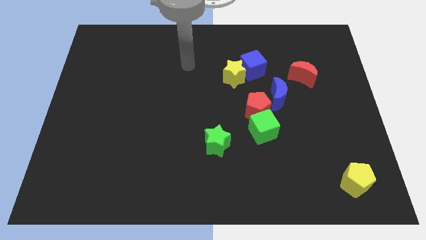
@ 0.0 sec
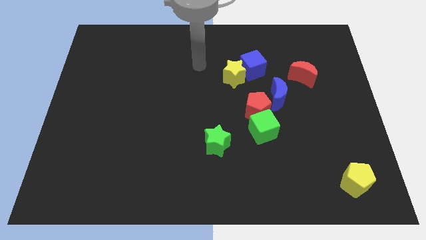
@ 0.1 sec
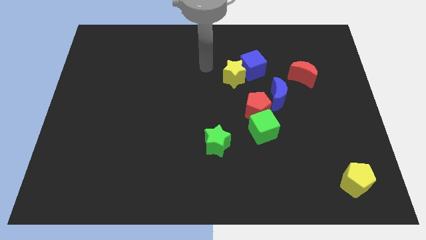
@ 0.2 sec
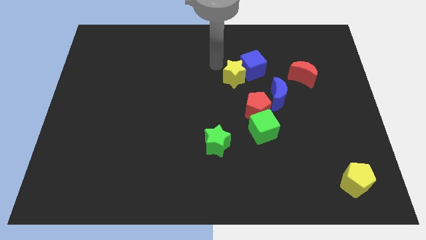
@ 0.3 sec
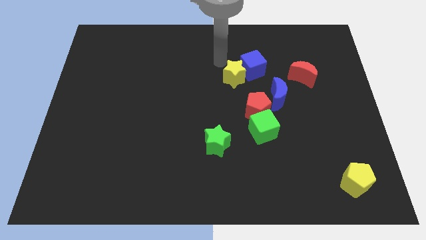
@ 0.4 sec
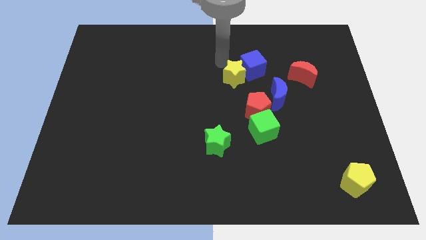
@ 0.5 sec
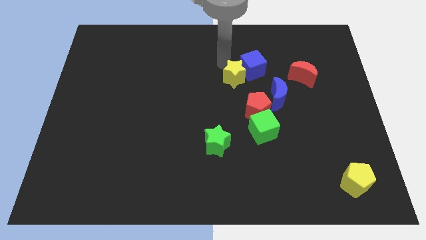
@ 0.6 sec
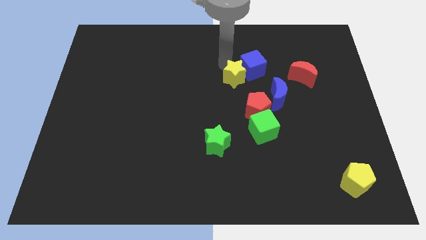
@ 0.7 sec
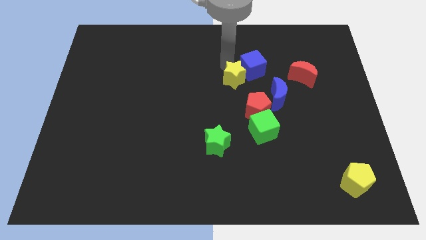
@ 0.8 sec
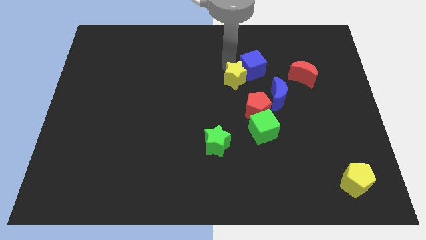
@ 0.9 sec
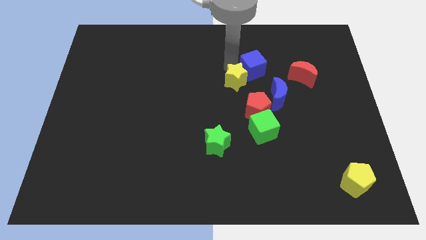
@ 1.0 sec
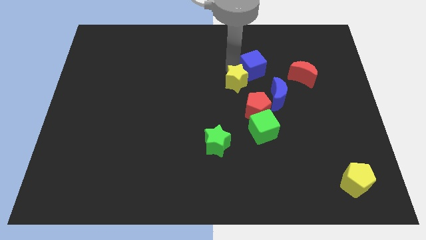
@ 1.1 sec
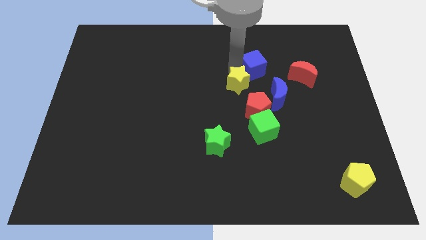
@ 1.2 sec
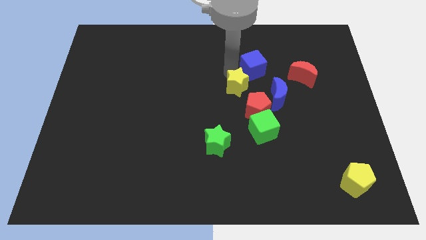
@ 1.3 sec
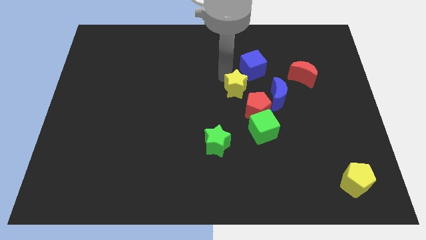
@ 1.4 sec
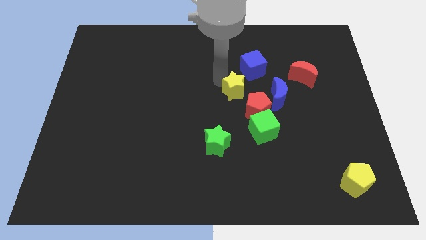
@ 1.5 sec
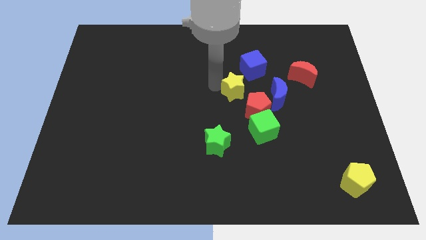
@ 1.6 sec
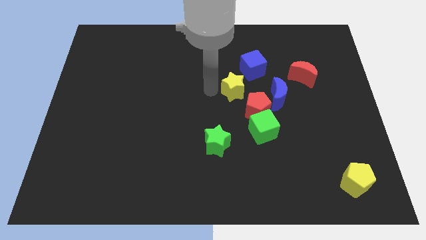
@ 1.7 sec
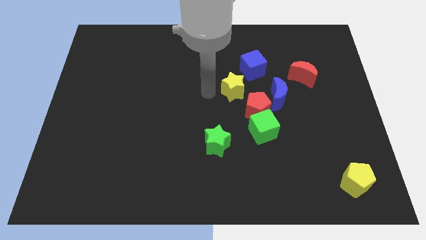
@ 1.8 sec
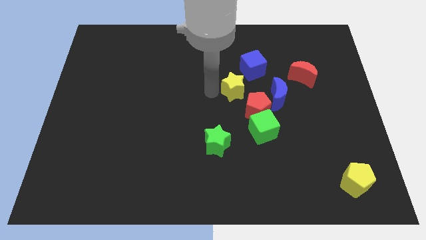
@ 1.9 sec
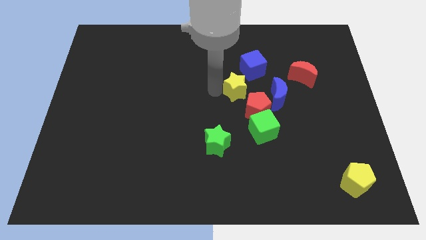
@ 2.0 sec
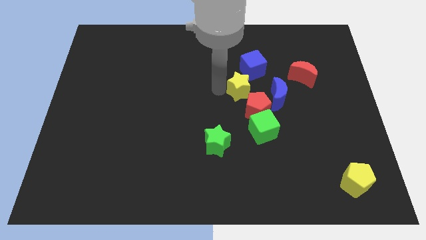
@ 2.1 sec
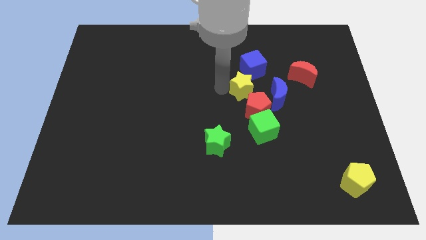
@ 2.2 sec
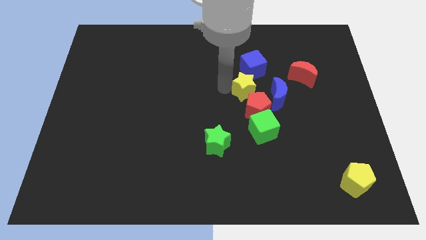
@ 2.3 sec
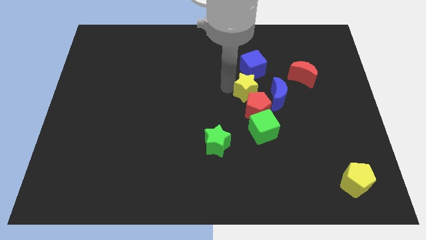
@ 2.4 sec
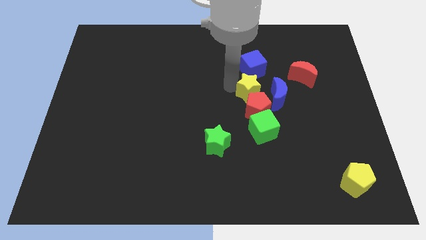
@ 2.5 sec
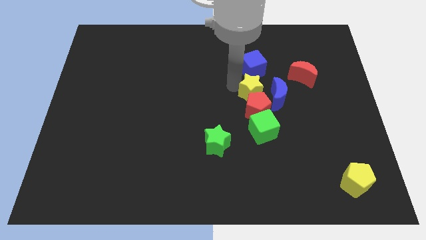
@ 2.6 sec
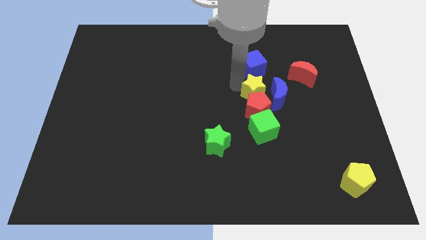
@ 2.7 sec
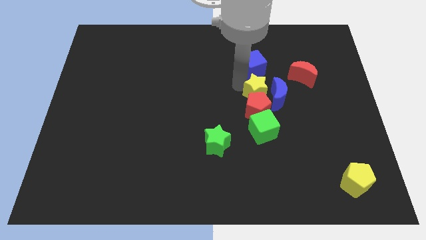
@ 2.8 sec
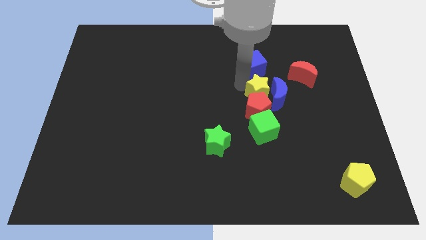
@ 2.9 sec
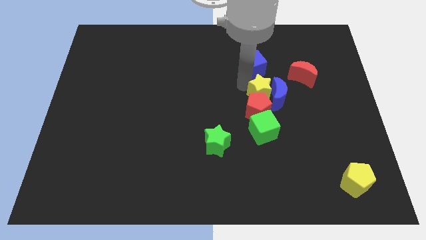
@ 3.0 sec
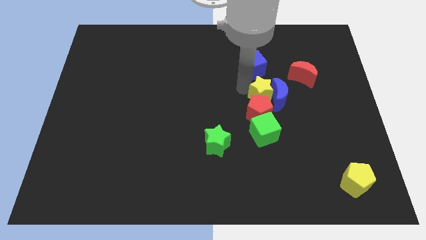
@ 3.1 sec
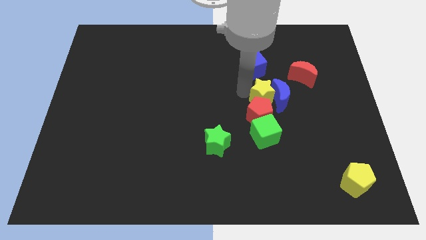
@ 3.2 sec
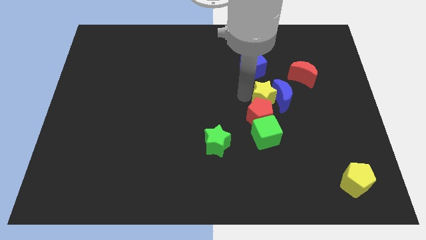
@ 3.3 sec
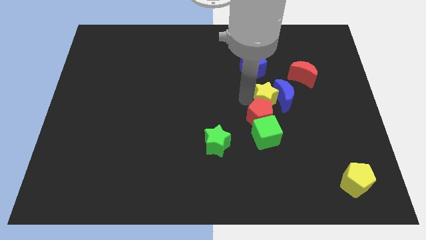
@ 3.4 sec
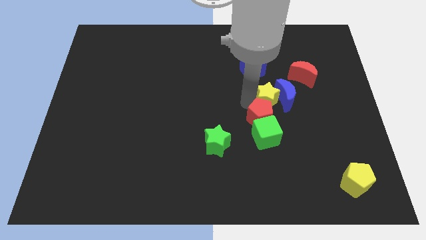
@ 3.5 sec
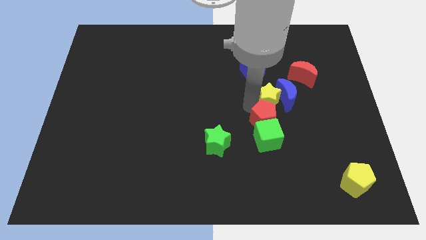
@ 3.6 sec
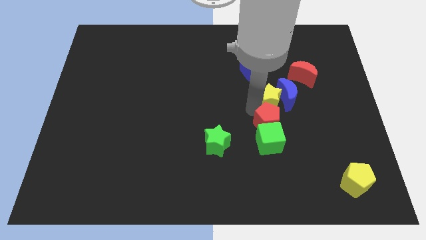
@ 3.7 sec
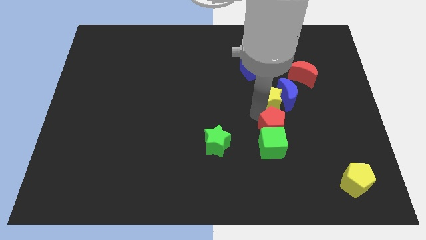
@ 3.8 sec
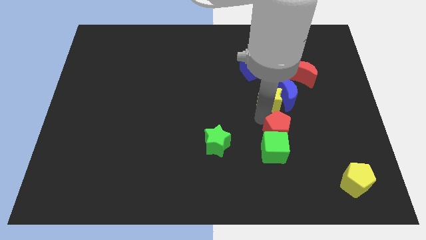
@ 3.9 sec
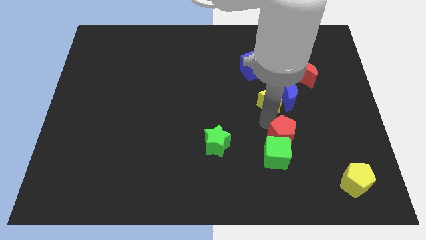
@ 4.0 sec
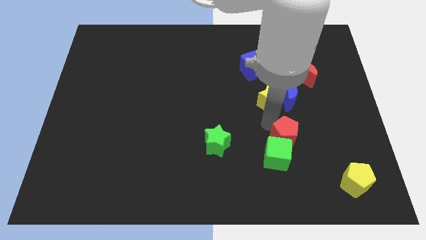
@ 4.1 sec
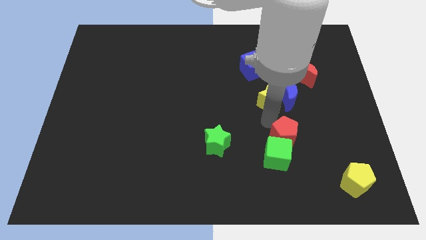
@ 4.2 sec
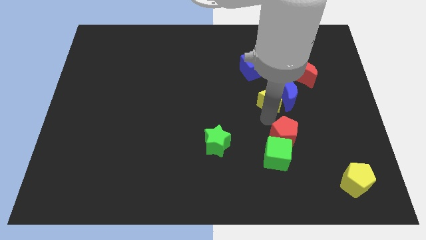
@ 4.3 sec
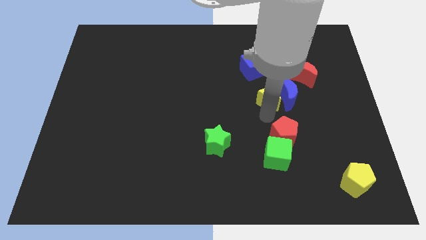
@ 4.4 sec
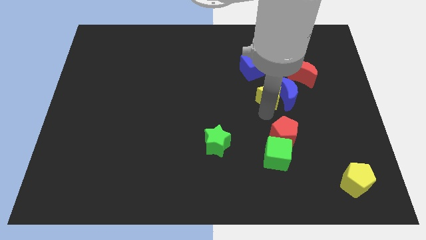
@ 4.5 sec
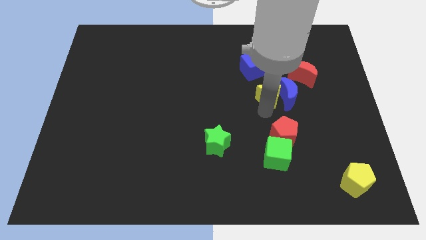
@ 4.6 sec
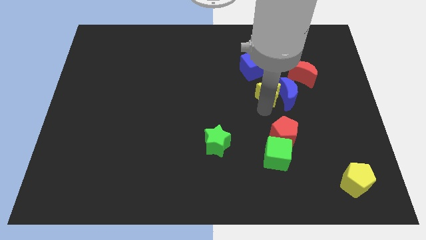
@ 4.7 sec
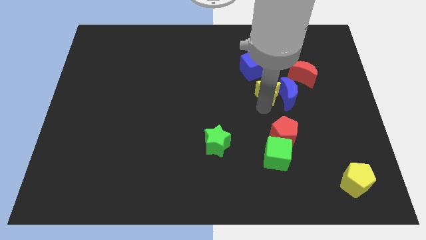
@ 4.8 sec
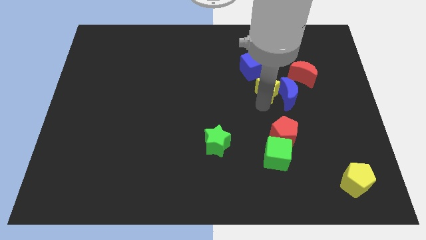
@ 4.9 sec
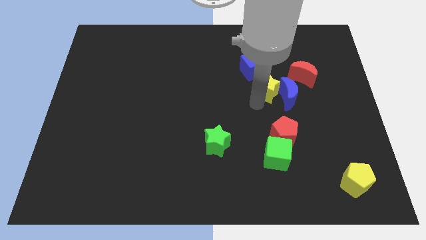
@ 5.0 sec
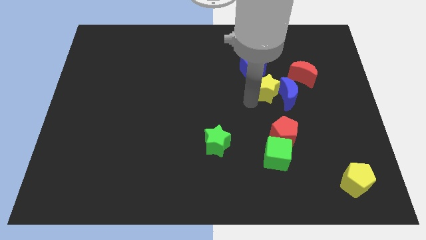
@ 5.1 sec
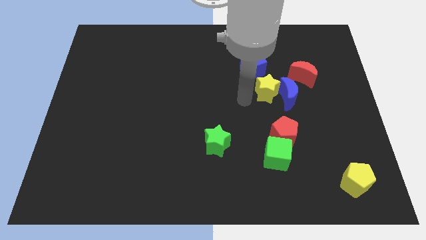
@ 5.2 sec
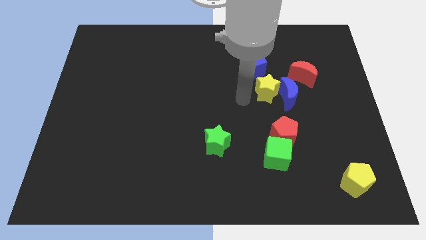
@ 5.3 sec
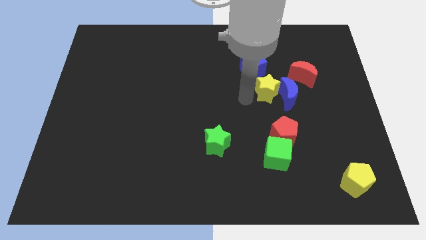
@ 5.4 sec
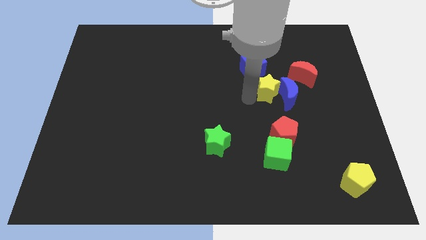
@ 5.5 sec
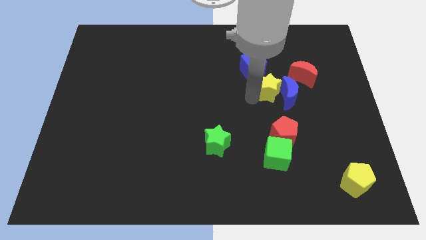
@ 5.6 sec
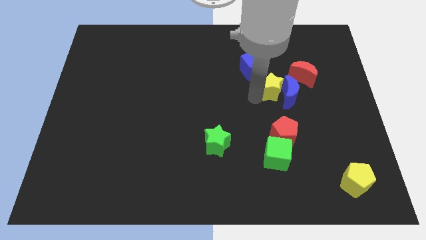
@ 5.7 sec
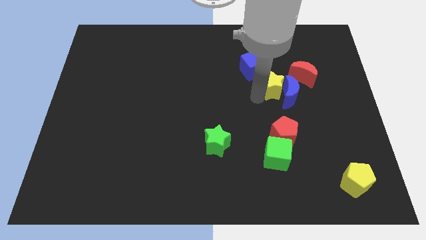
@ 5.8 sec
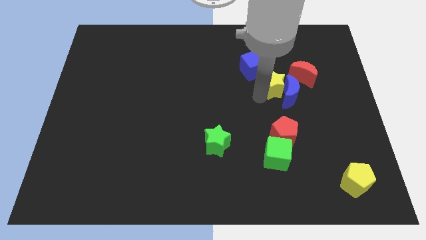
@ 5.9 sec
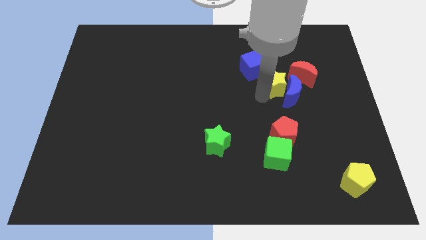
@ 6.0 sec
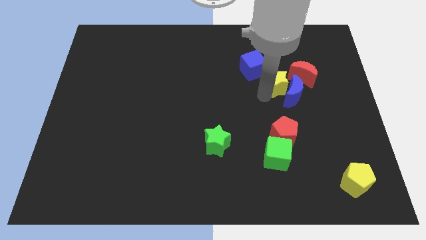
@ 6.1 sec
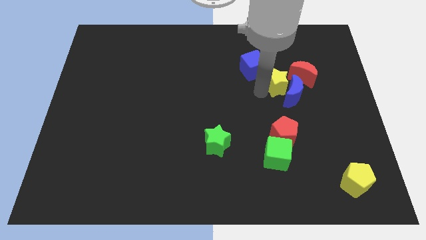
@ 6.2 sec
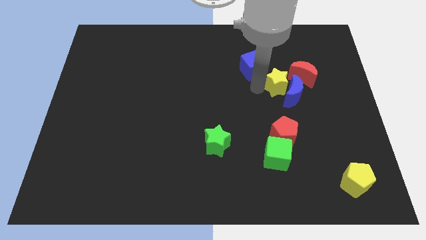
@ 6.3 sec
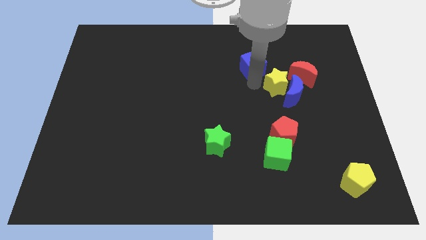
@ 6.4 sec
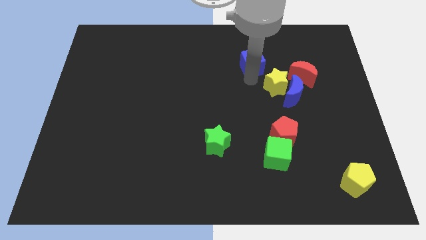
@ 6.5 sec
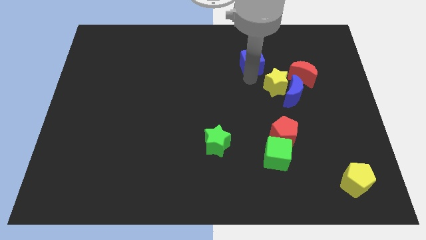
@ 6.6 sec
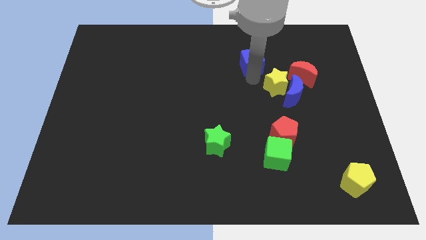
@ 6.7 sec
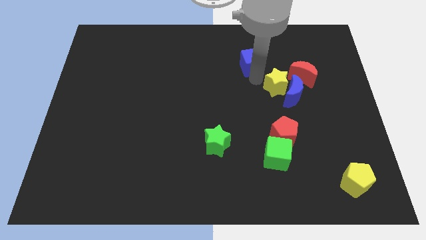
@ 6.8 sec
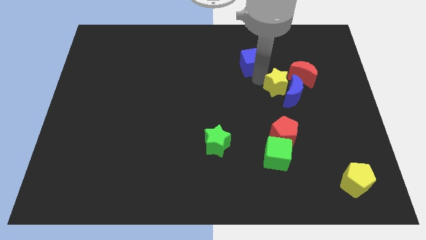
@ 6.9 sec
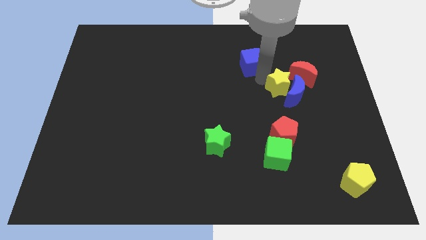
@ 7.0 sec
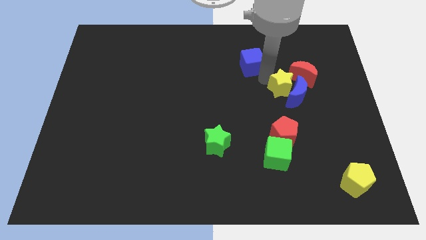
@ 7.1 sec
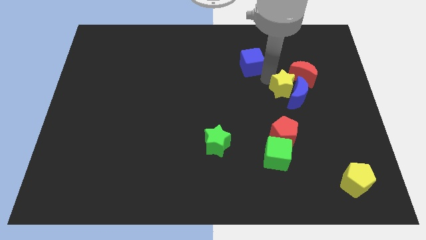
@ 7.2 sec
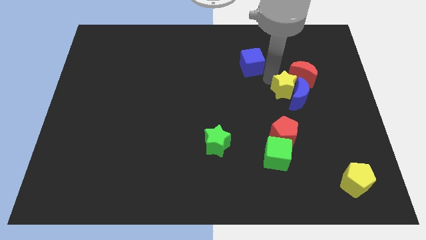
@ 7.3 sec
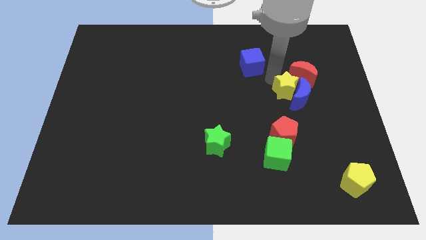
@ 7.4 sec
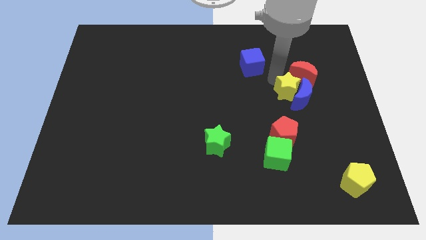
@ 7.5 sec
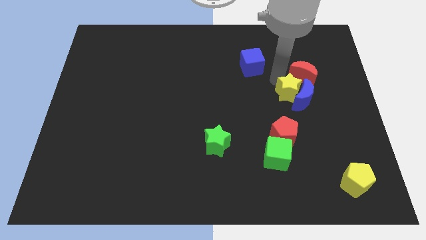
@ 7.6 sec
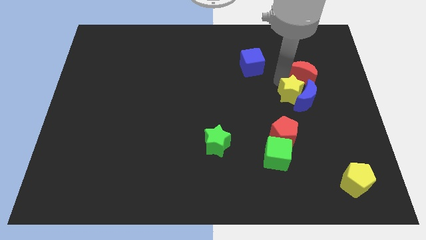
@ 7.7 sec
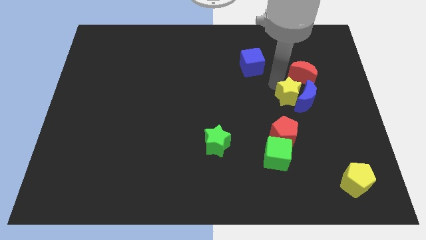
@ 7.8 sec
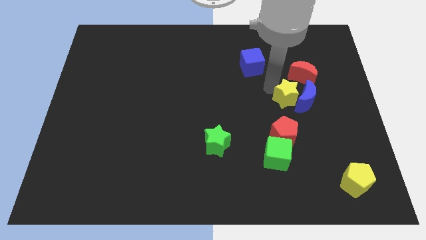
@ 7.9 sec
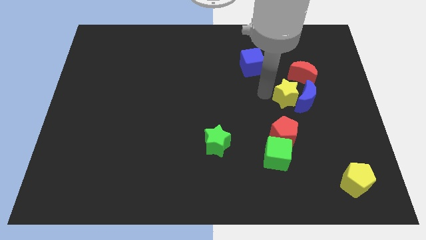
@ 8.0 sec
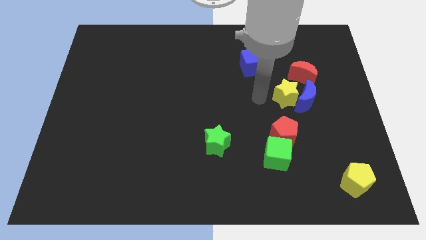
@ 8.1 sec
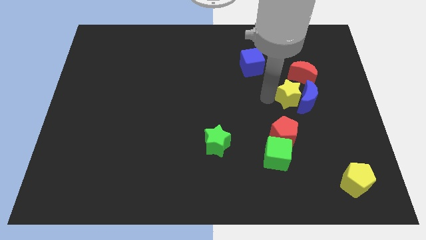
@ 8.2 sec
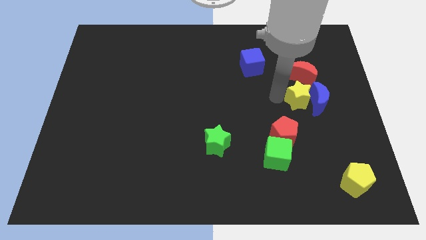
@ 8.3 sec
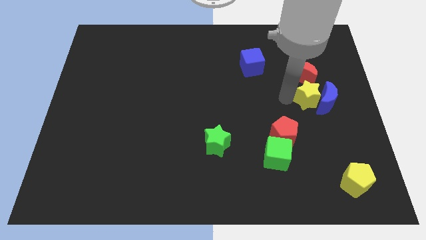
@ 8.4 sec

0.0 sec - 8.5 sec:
push the yellow star to the bottom right of the red moon
